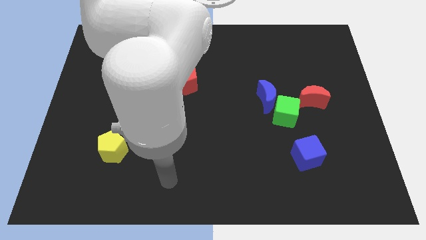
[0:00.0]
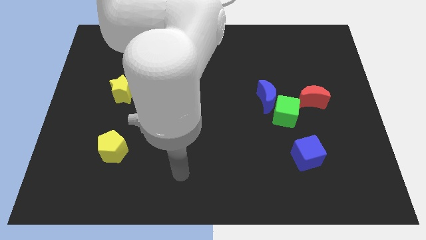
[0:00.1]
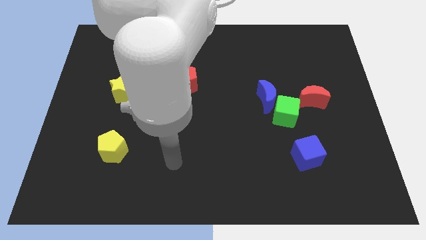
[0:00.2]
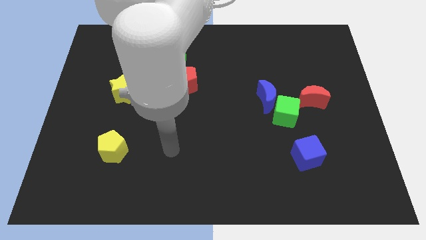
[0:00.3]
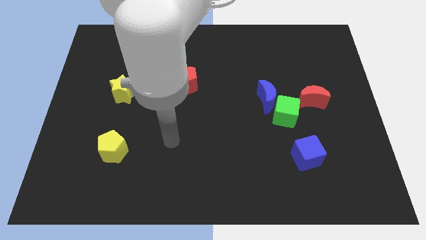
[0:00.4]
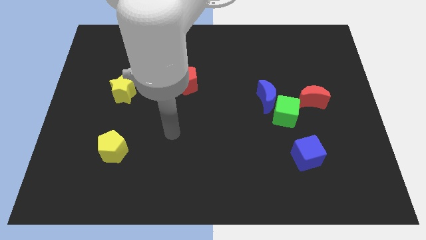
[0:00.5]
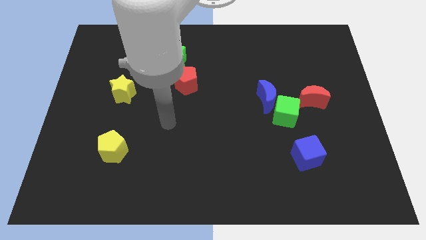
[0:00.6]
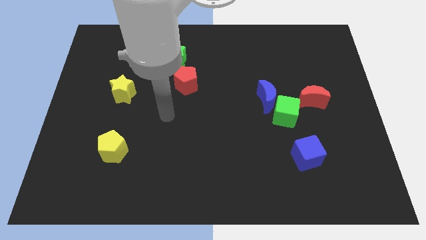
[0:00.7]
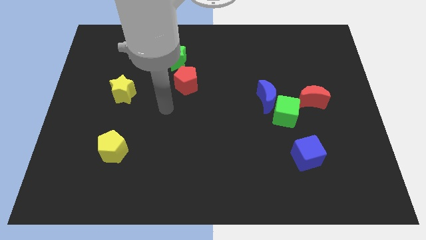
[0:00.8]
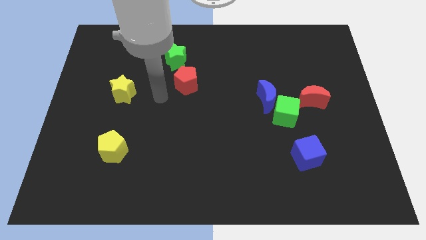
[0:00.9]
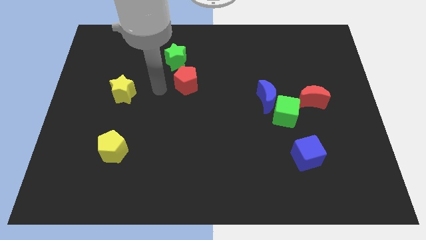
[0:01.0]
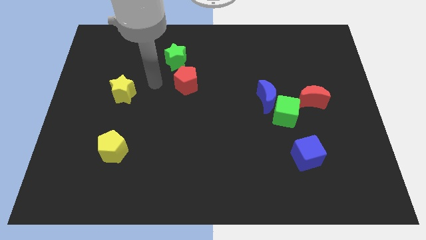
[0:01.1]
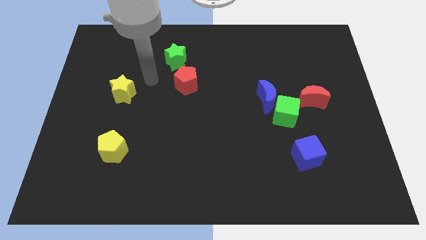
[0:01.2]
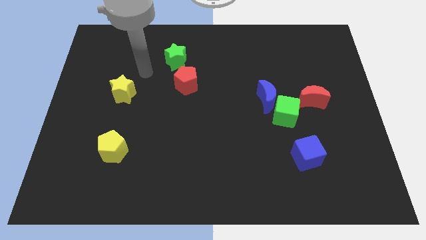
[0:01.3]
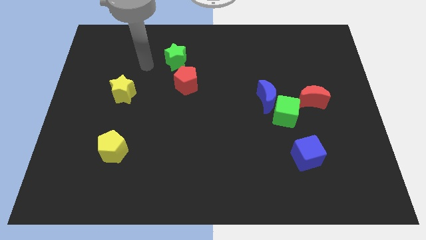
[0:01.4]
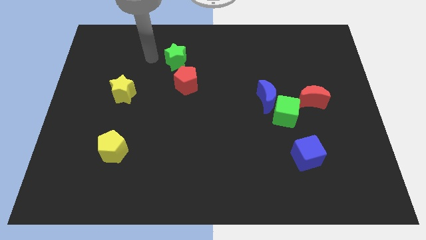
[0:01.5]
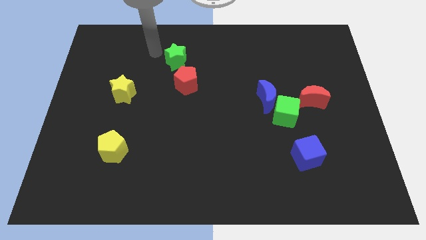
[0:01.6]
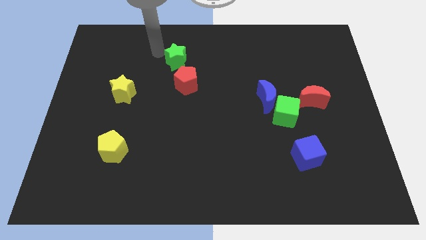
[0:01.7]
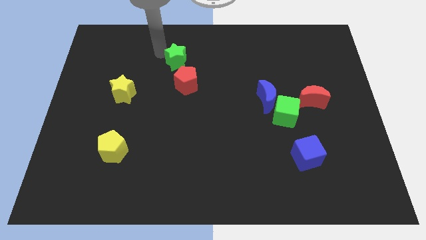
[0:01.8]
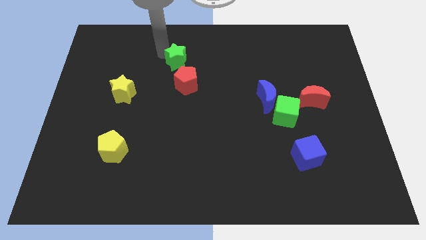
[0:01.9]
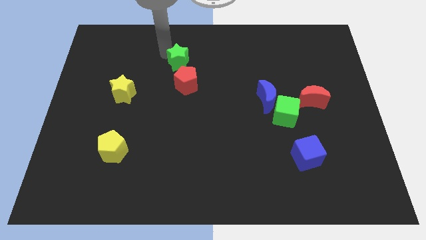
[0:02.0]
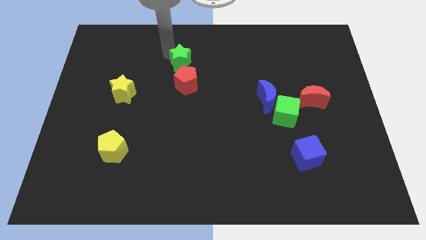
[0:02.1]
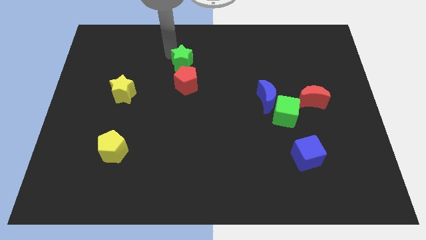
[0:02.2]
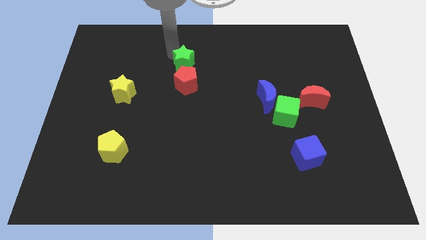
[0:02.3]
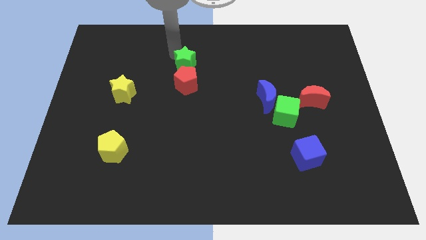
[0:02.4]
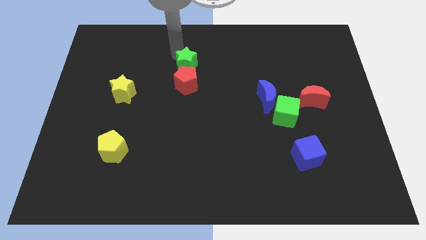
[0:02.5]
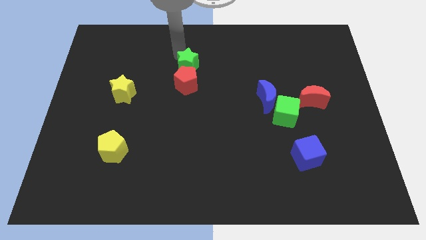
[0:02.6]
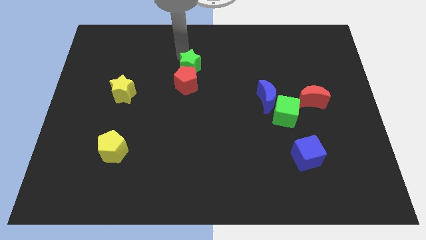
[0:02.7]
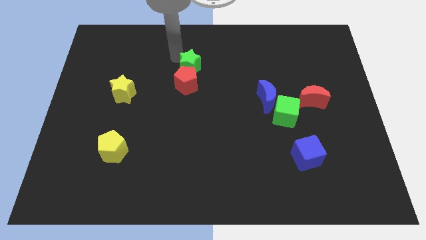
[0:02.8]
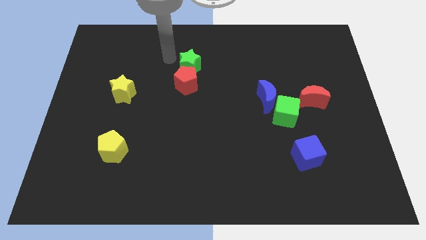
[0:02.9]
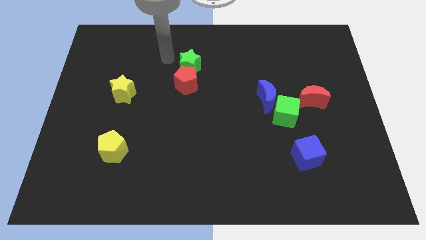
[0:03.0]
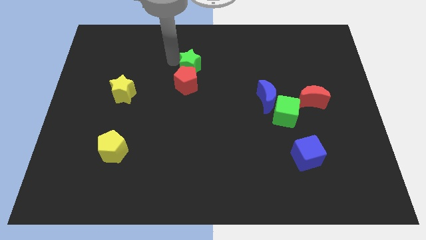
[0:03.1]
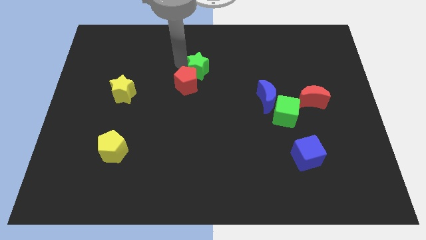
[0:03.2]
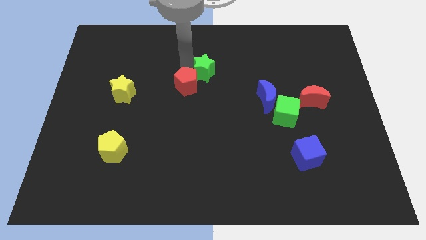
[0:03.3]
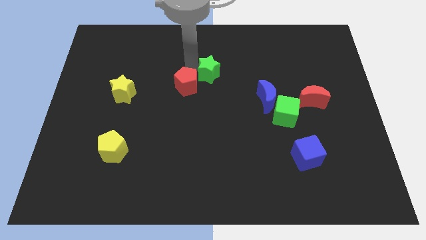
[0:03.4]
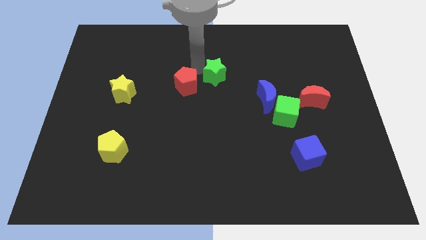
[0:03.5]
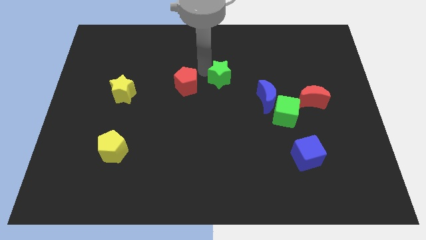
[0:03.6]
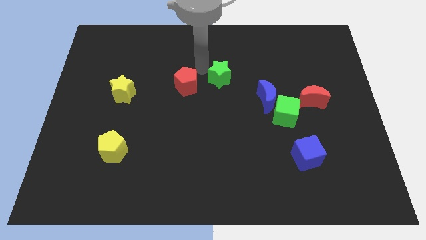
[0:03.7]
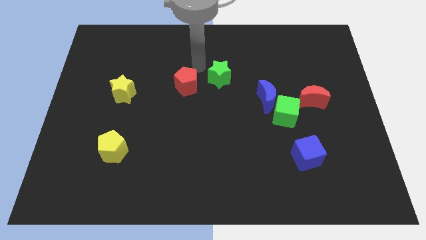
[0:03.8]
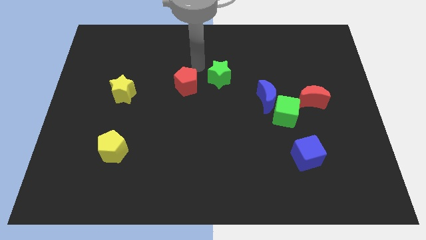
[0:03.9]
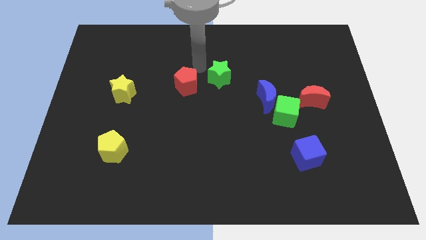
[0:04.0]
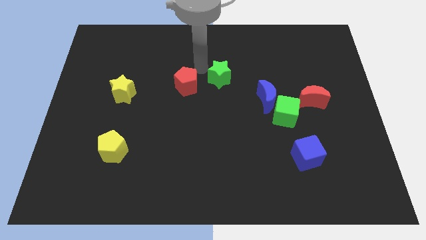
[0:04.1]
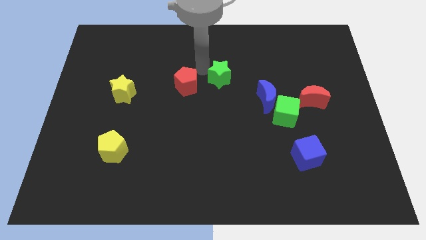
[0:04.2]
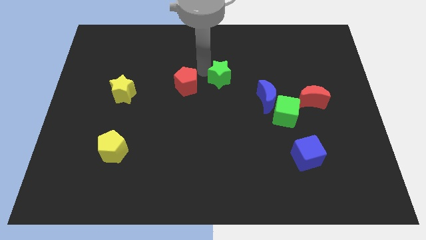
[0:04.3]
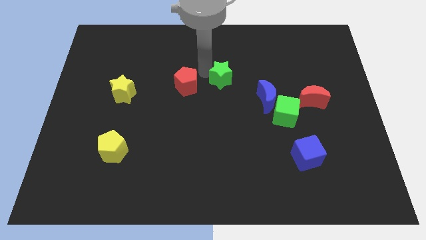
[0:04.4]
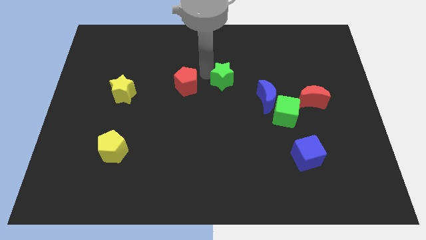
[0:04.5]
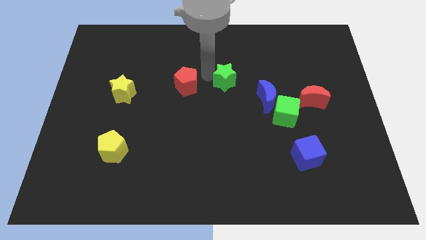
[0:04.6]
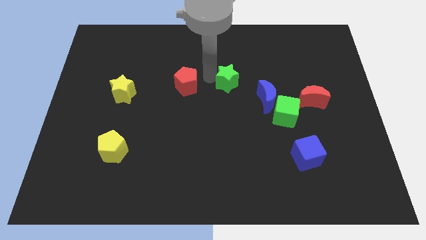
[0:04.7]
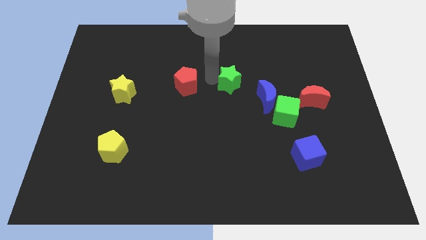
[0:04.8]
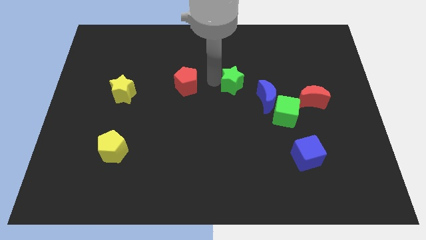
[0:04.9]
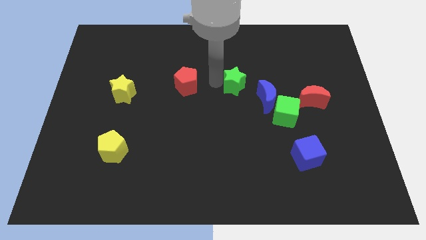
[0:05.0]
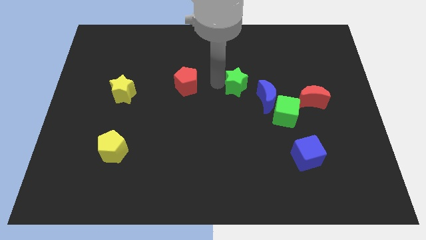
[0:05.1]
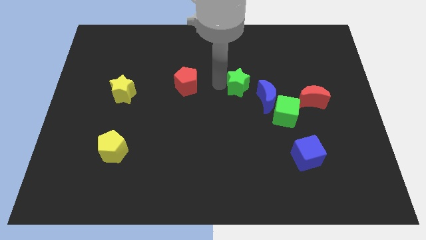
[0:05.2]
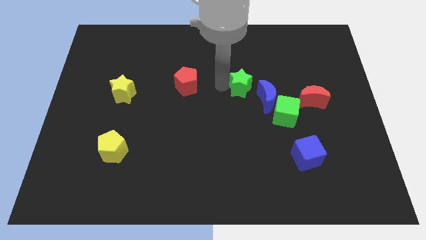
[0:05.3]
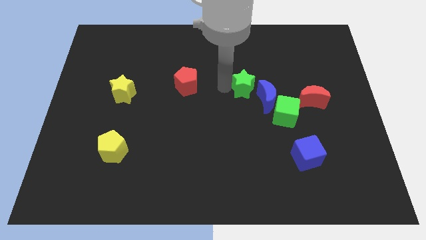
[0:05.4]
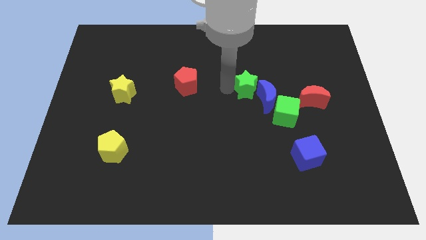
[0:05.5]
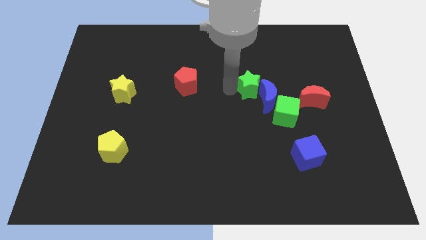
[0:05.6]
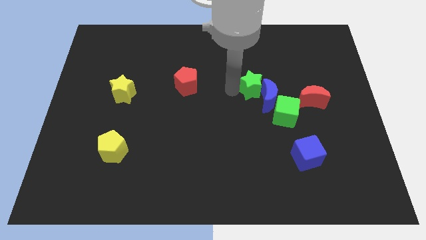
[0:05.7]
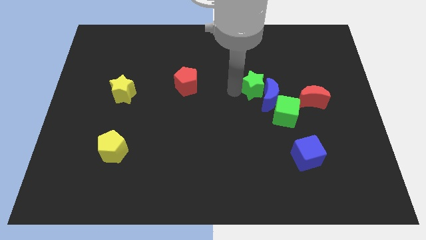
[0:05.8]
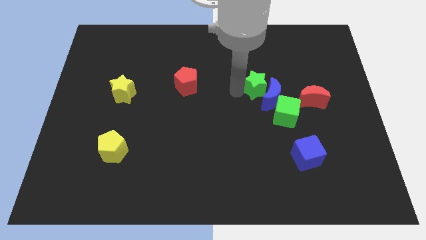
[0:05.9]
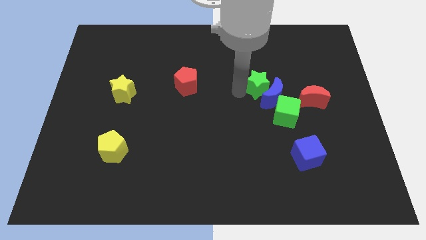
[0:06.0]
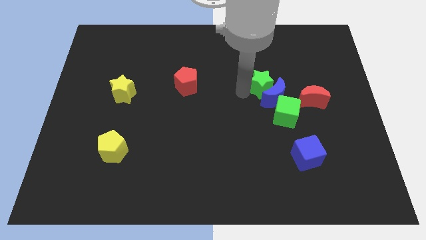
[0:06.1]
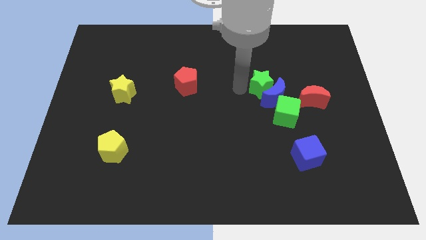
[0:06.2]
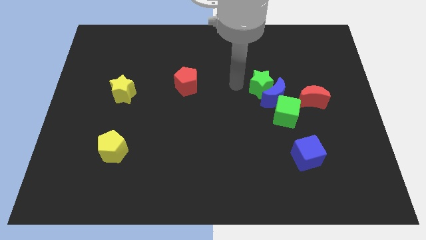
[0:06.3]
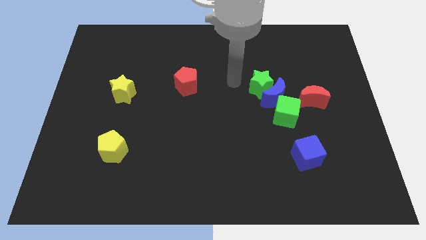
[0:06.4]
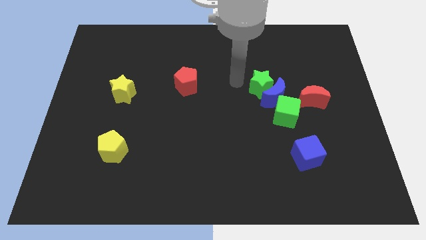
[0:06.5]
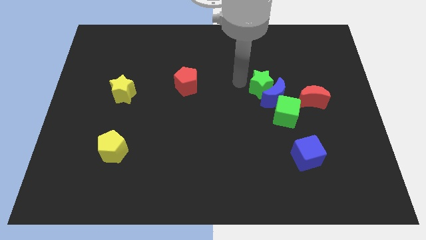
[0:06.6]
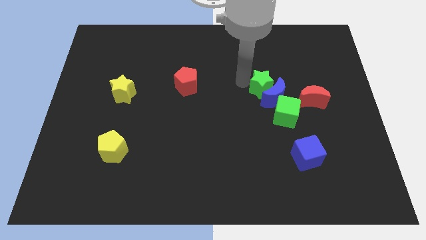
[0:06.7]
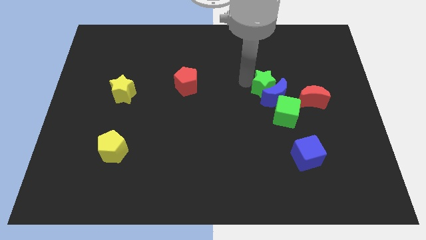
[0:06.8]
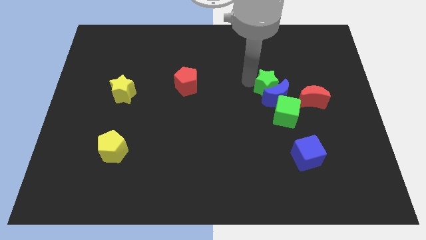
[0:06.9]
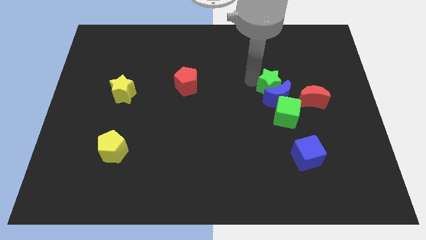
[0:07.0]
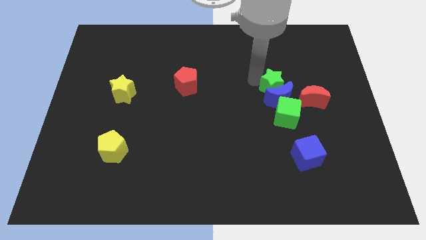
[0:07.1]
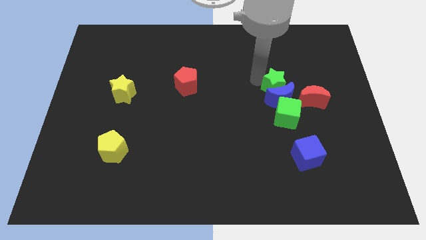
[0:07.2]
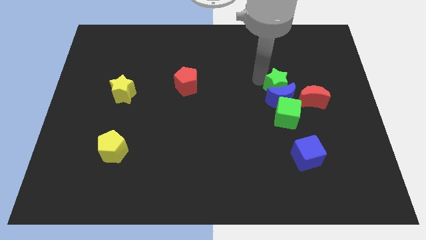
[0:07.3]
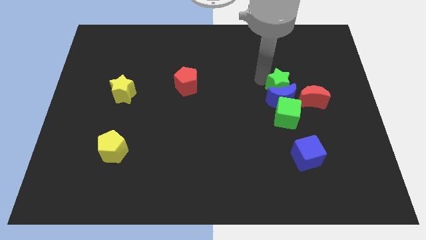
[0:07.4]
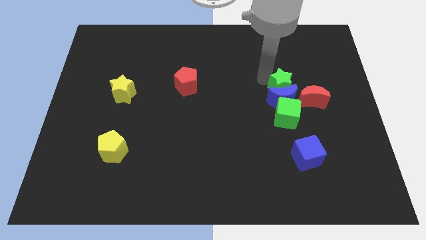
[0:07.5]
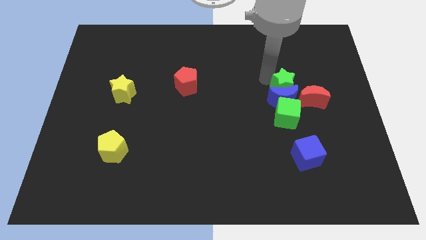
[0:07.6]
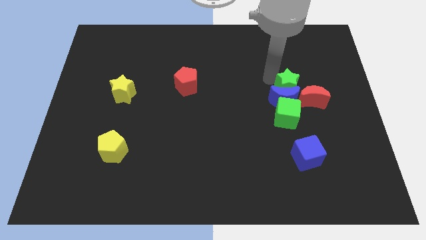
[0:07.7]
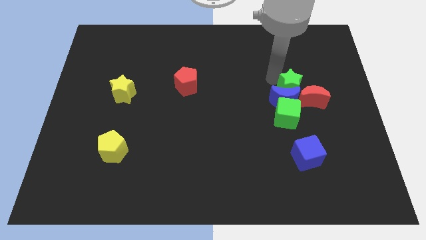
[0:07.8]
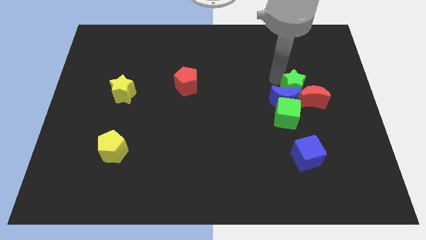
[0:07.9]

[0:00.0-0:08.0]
push the green star close to the red moon

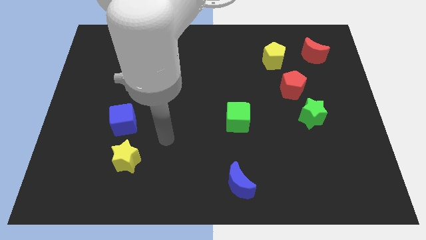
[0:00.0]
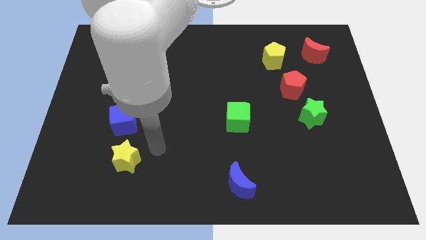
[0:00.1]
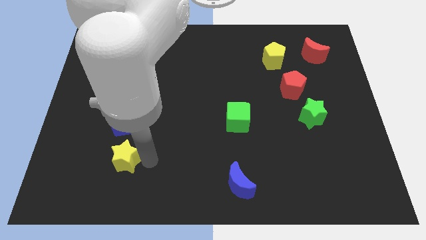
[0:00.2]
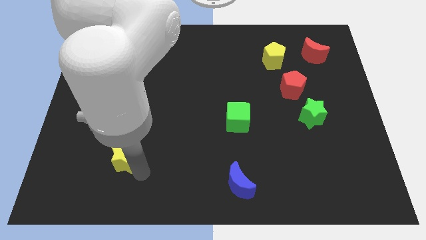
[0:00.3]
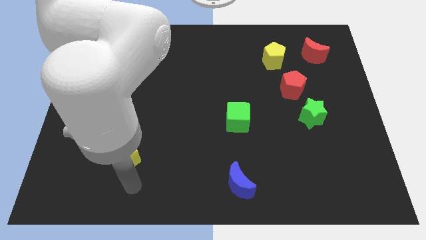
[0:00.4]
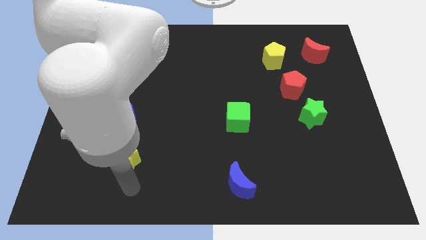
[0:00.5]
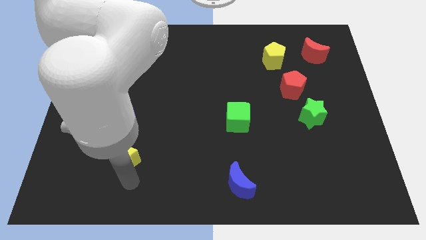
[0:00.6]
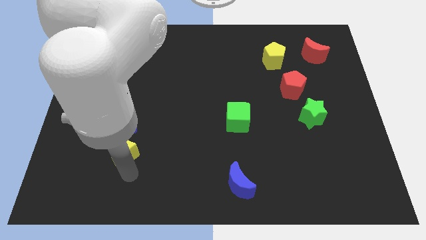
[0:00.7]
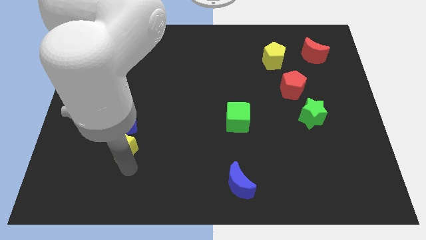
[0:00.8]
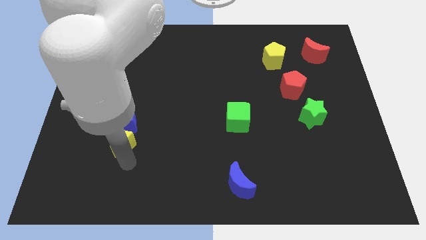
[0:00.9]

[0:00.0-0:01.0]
push the yellow star towards the blue cube
